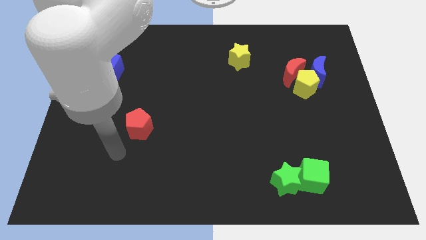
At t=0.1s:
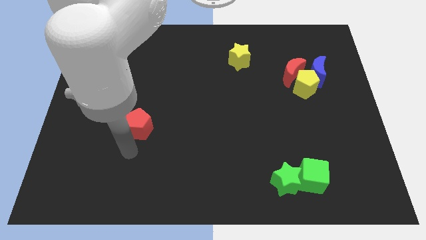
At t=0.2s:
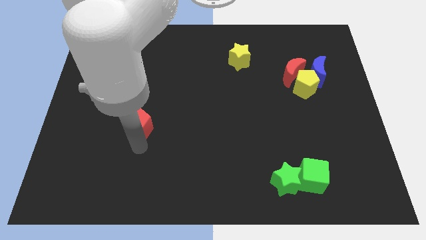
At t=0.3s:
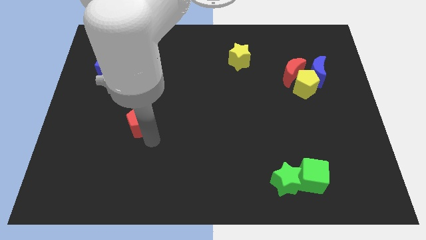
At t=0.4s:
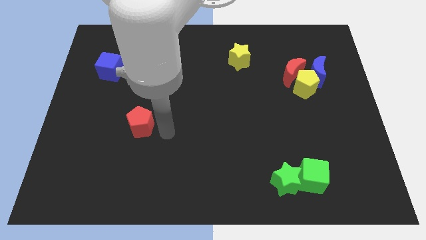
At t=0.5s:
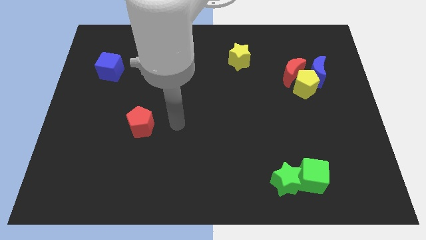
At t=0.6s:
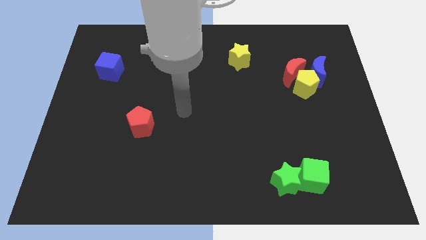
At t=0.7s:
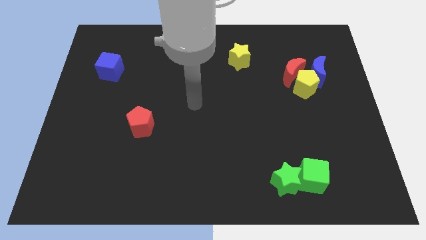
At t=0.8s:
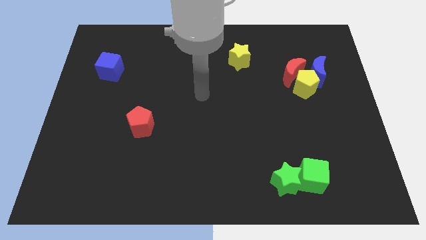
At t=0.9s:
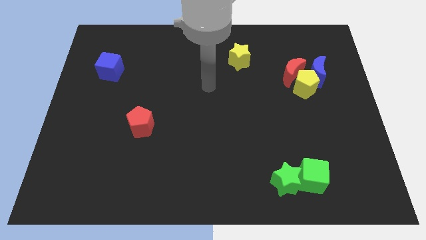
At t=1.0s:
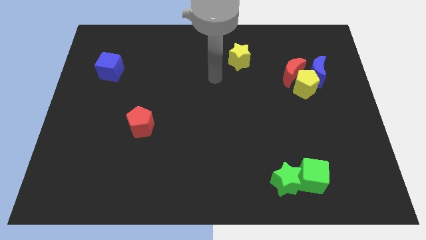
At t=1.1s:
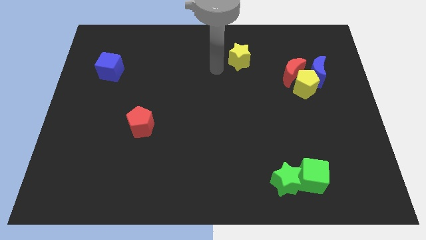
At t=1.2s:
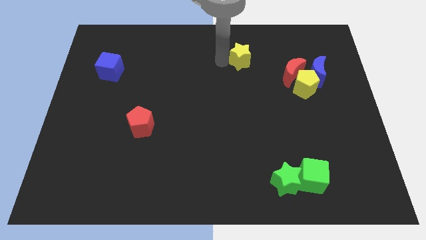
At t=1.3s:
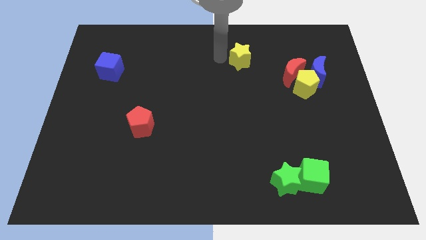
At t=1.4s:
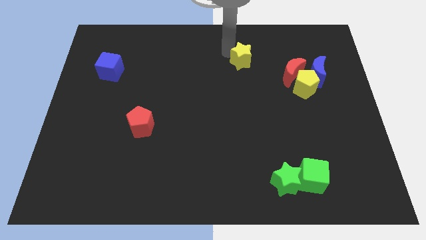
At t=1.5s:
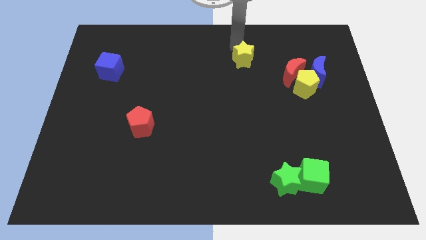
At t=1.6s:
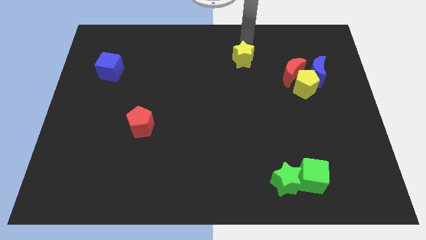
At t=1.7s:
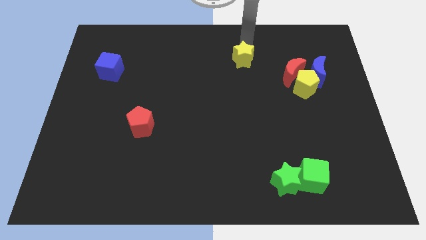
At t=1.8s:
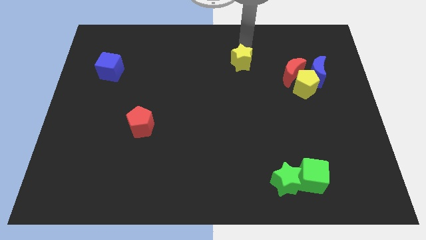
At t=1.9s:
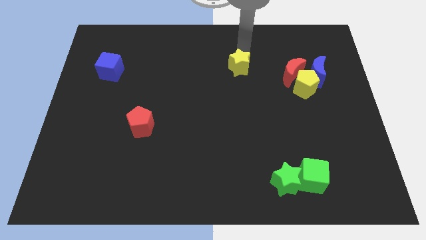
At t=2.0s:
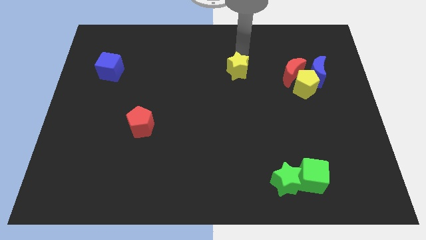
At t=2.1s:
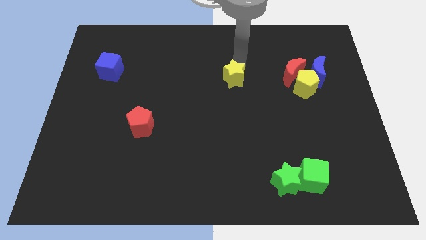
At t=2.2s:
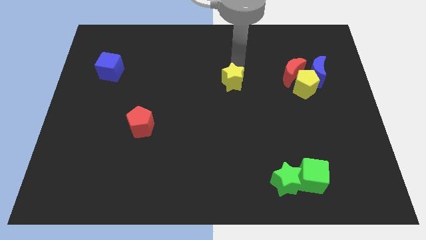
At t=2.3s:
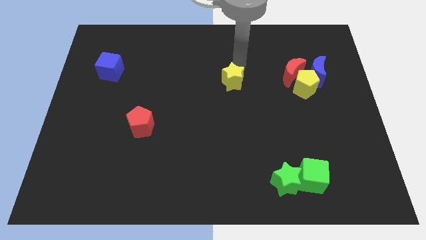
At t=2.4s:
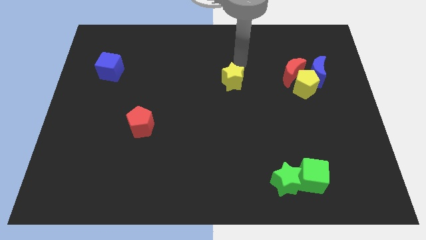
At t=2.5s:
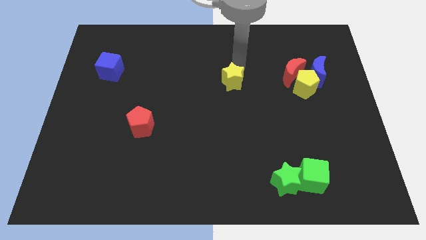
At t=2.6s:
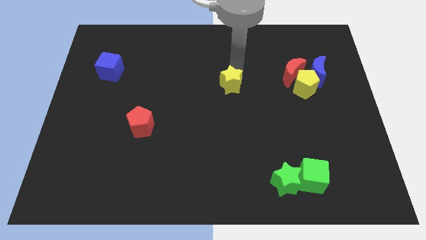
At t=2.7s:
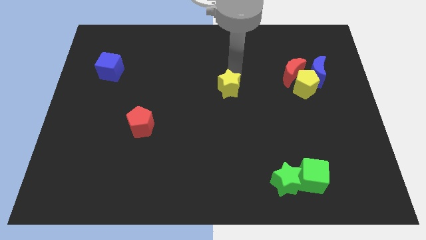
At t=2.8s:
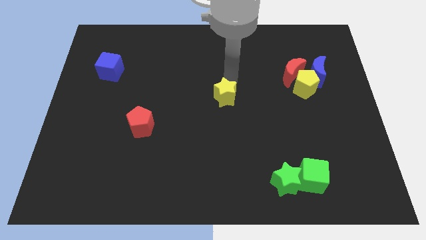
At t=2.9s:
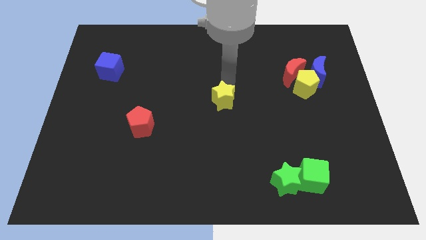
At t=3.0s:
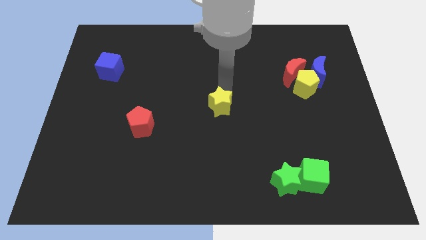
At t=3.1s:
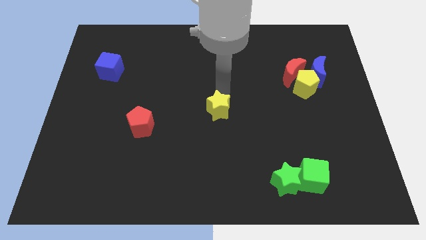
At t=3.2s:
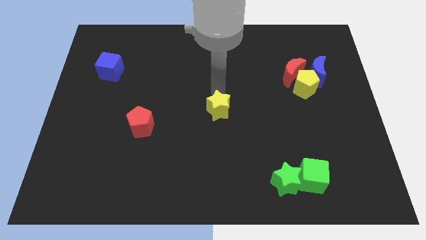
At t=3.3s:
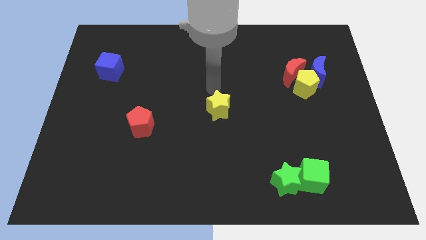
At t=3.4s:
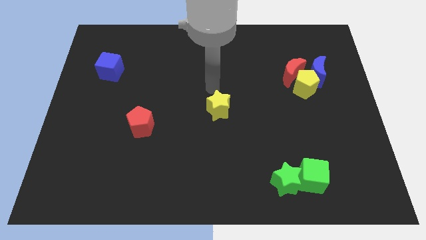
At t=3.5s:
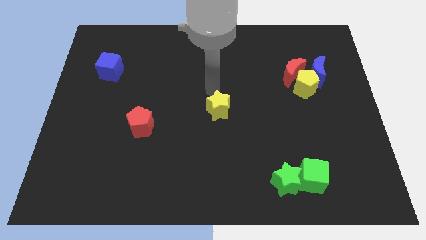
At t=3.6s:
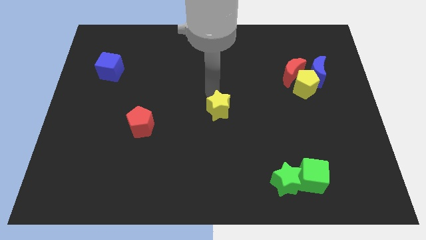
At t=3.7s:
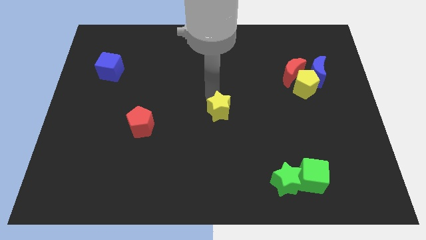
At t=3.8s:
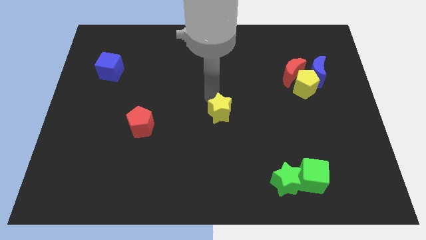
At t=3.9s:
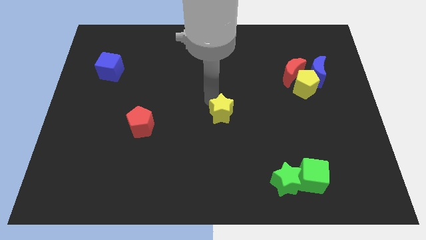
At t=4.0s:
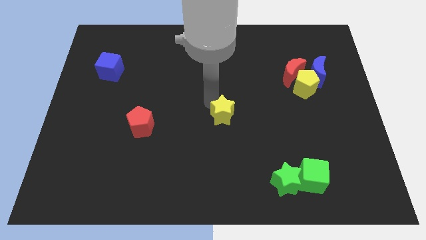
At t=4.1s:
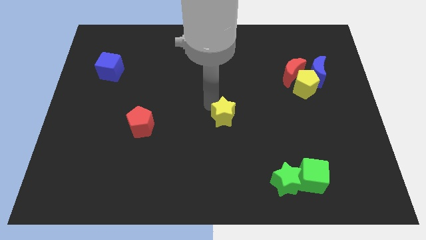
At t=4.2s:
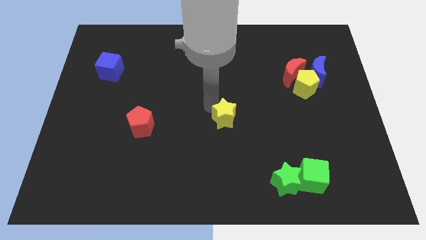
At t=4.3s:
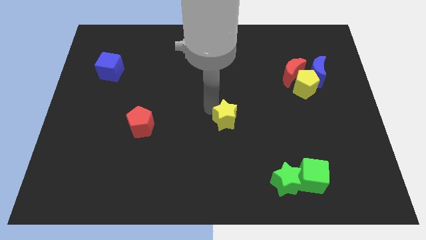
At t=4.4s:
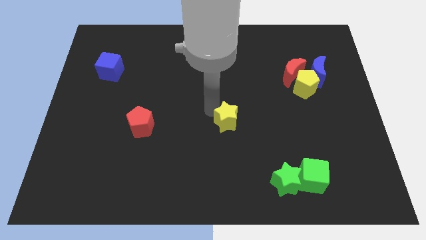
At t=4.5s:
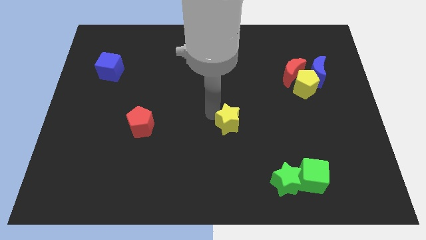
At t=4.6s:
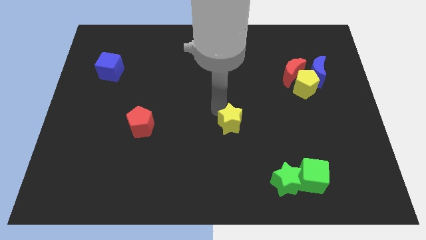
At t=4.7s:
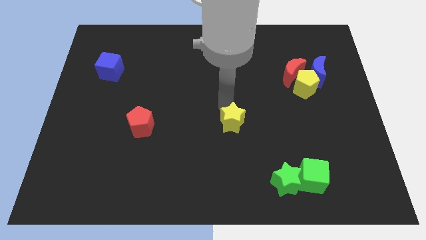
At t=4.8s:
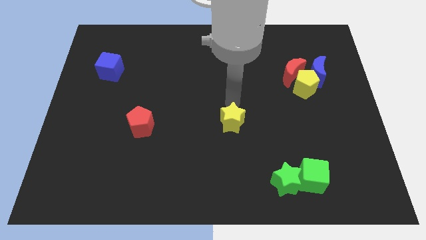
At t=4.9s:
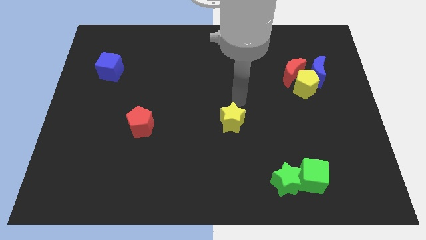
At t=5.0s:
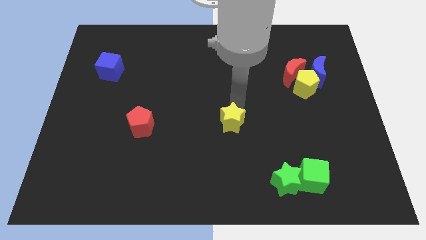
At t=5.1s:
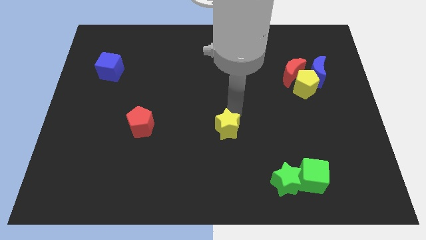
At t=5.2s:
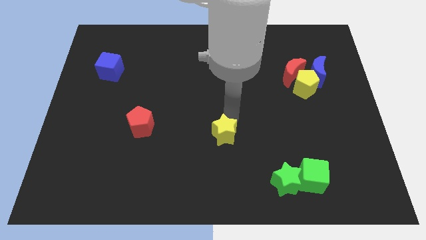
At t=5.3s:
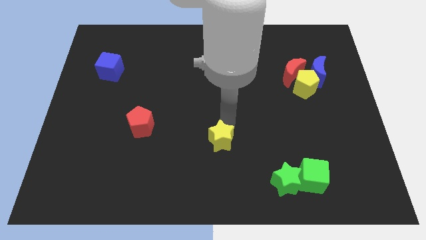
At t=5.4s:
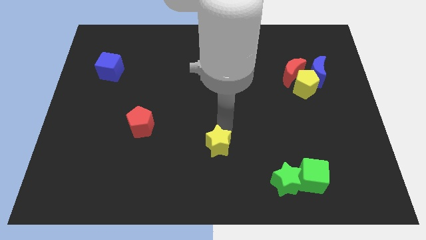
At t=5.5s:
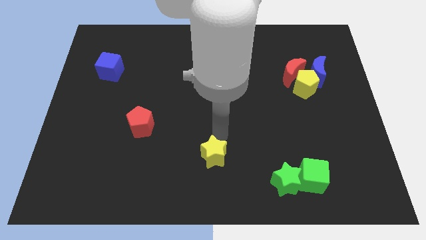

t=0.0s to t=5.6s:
put the yellow star to the bottom
